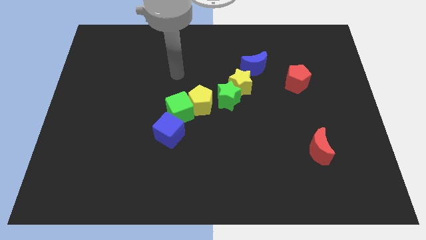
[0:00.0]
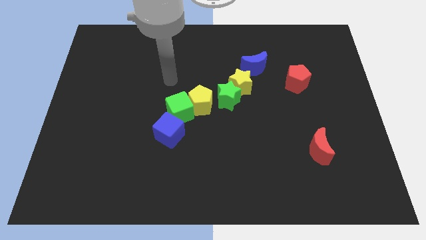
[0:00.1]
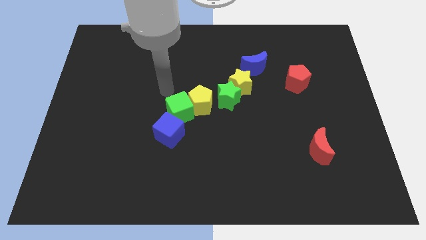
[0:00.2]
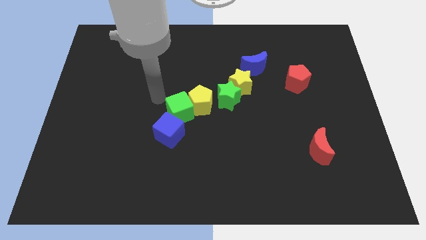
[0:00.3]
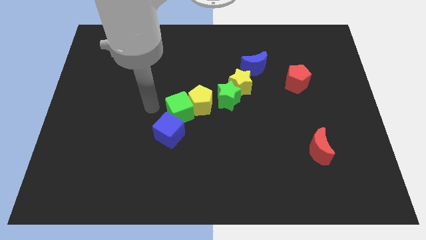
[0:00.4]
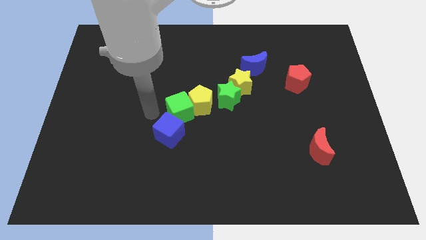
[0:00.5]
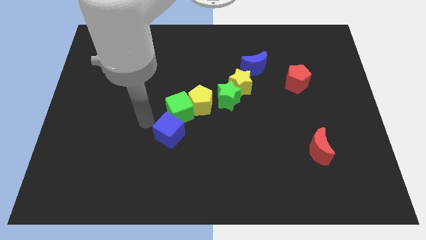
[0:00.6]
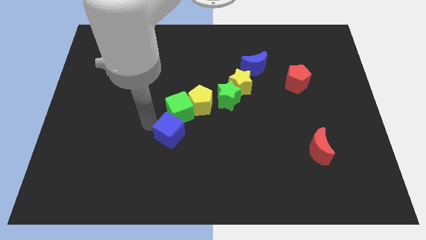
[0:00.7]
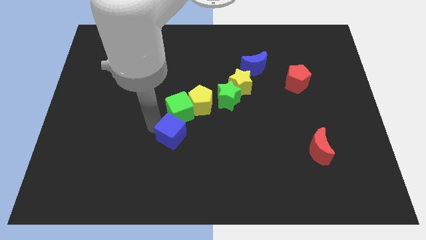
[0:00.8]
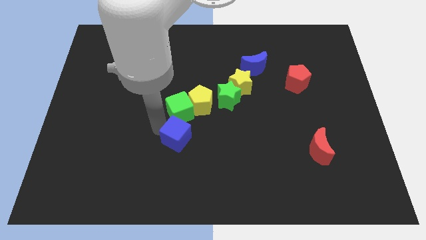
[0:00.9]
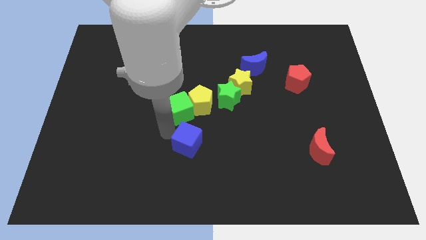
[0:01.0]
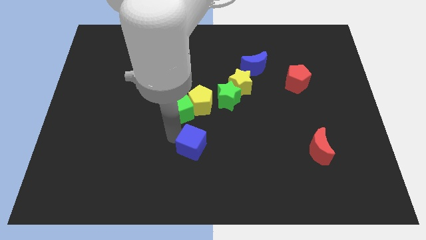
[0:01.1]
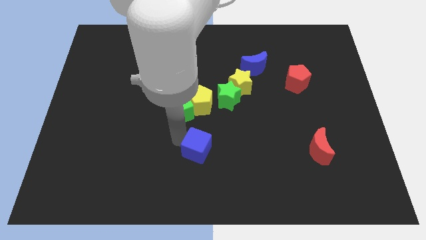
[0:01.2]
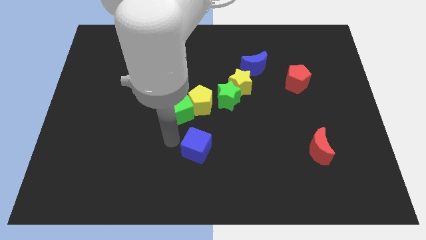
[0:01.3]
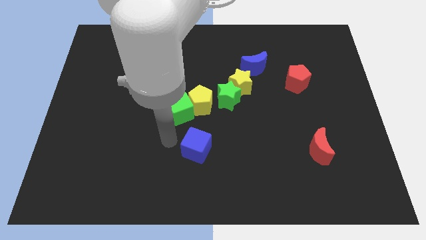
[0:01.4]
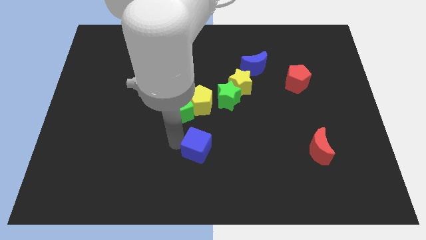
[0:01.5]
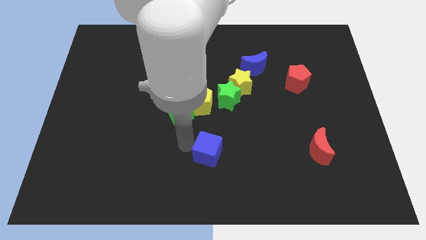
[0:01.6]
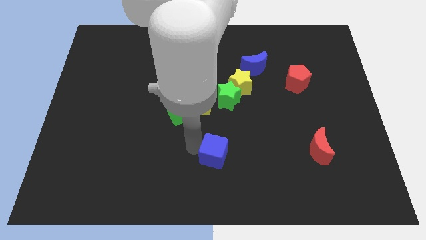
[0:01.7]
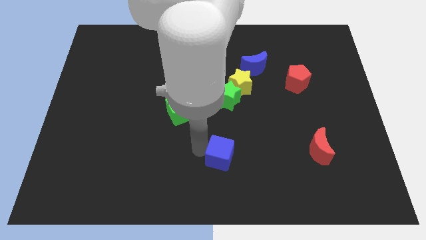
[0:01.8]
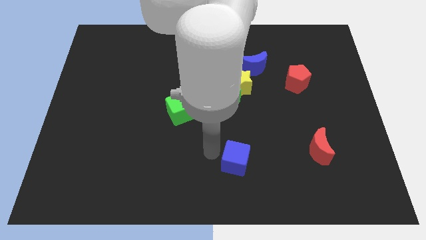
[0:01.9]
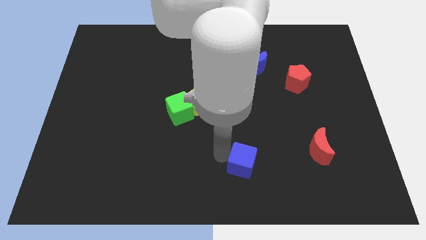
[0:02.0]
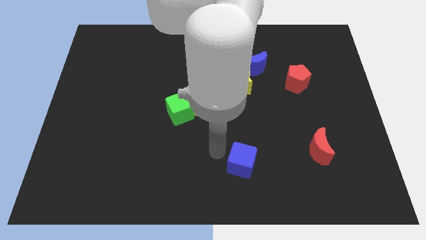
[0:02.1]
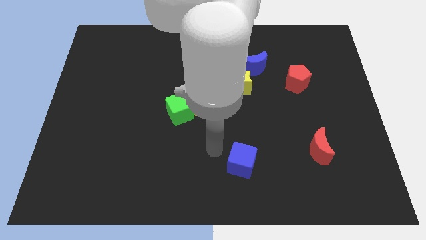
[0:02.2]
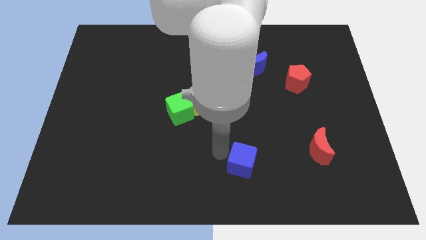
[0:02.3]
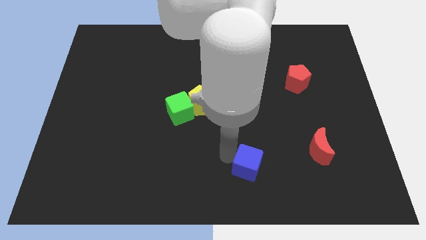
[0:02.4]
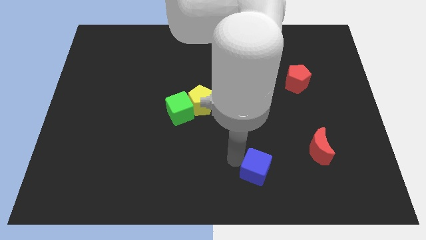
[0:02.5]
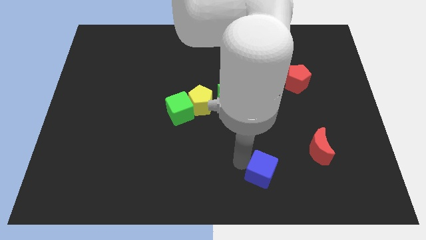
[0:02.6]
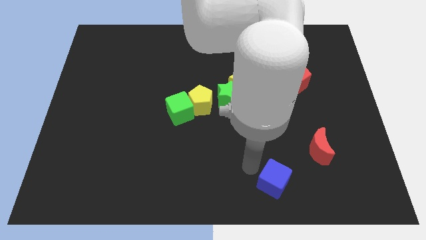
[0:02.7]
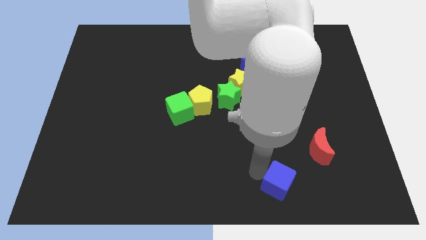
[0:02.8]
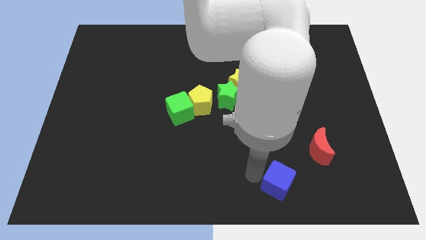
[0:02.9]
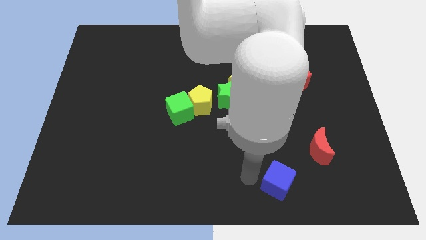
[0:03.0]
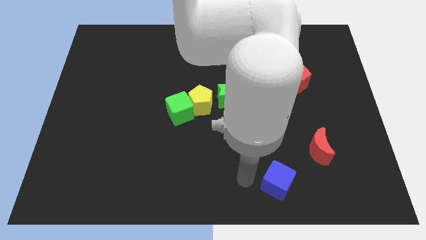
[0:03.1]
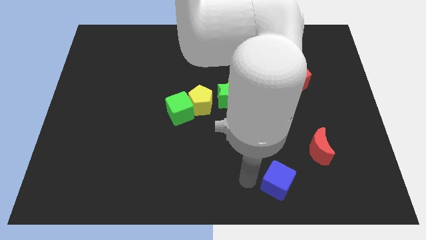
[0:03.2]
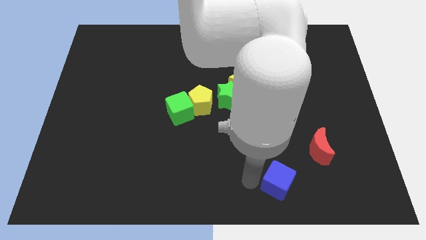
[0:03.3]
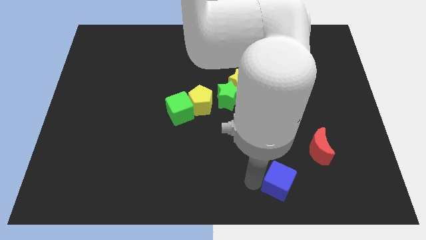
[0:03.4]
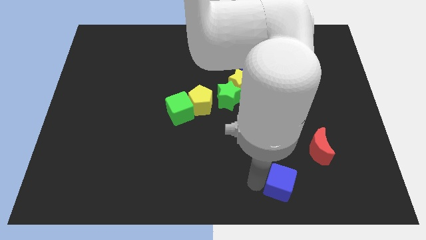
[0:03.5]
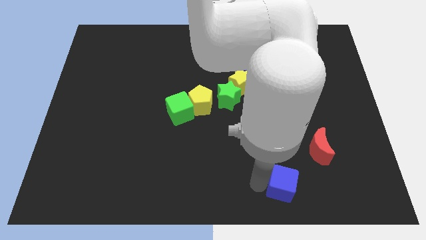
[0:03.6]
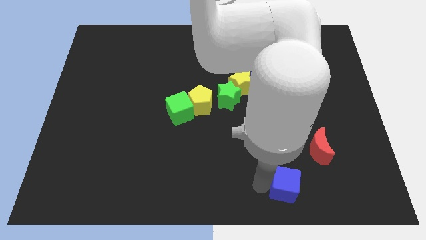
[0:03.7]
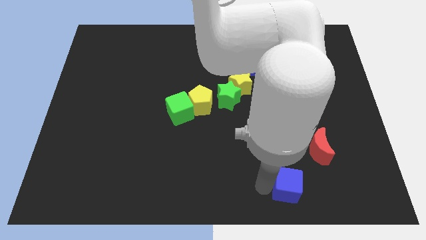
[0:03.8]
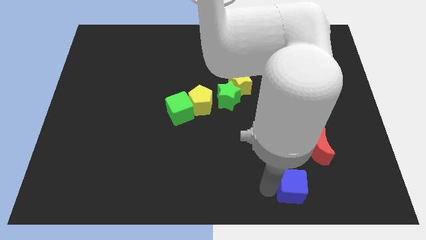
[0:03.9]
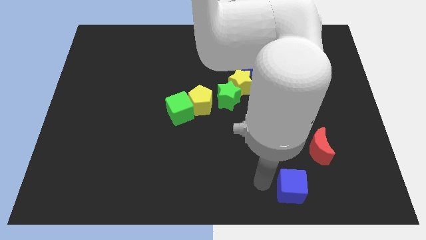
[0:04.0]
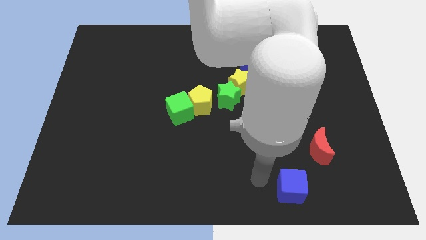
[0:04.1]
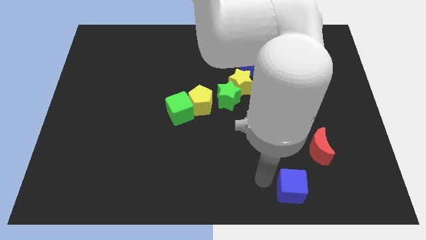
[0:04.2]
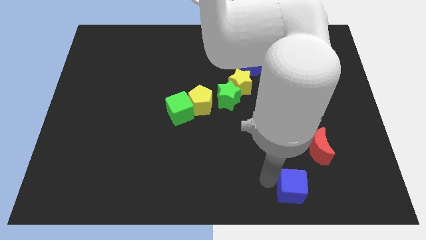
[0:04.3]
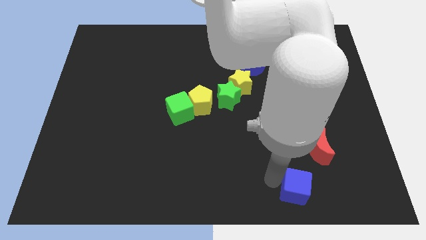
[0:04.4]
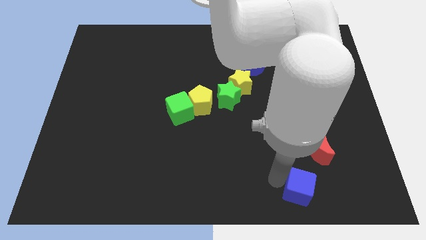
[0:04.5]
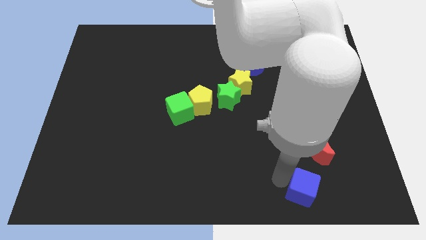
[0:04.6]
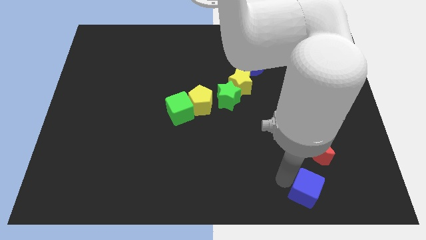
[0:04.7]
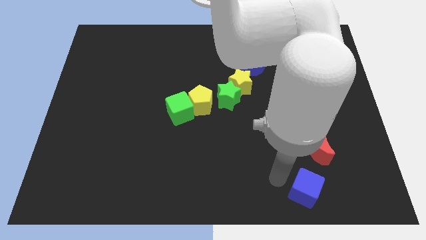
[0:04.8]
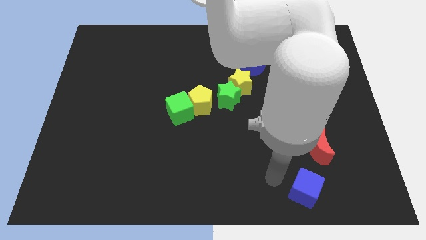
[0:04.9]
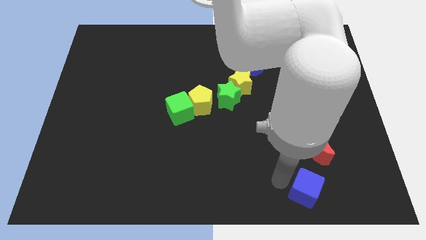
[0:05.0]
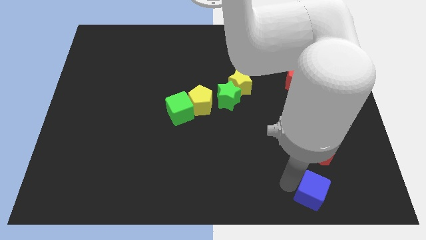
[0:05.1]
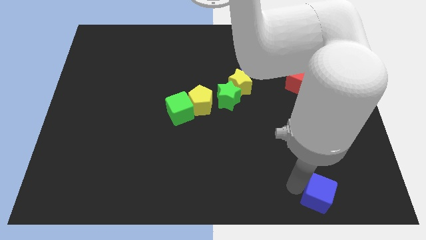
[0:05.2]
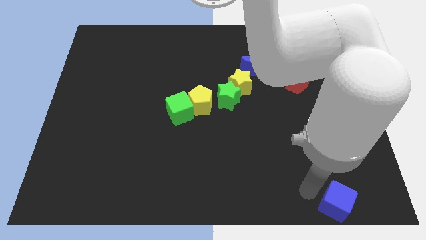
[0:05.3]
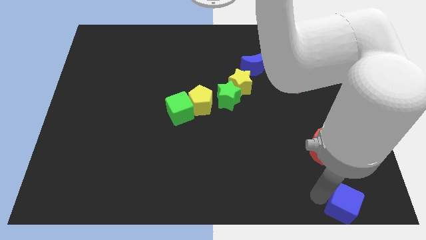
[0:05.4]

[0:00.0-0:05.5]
move the blue cube to the bottom right corner

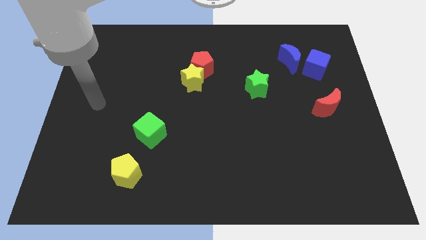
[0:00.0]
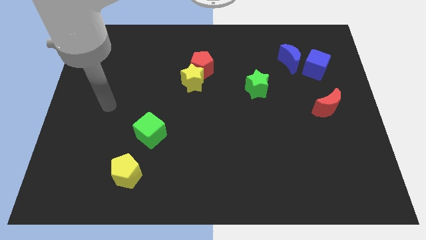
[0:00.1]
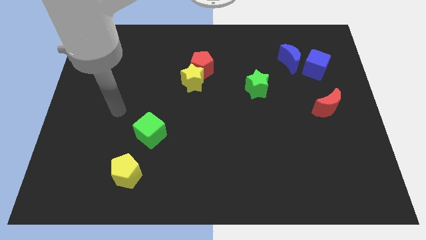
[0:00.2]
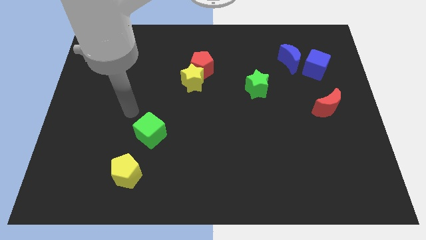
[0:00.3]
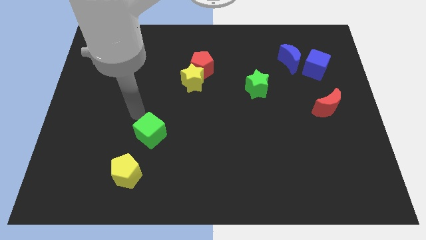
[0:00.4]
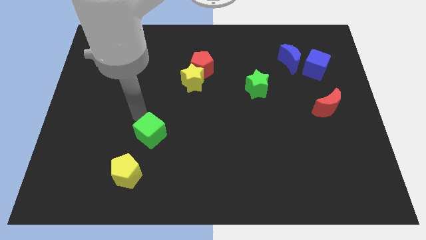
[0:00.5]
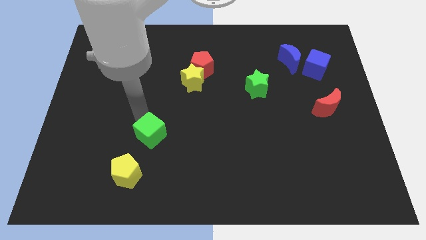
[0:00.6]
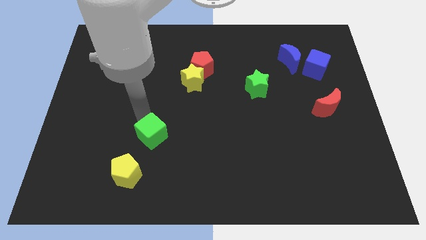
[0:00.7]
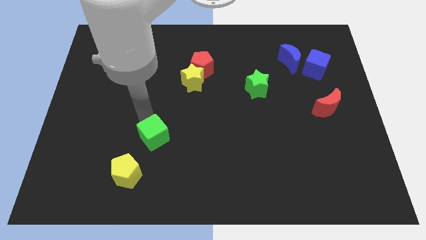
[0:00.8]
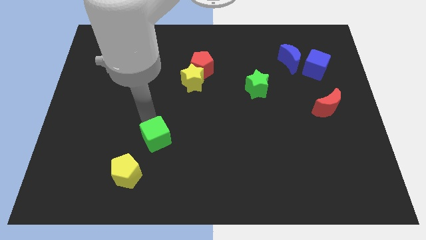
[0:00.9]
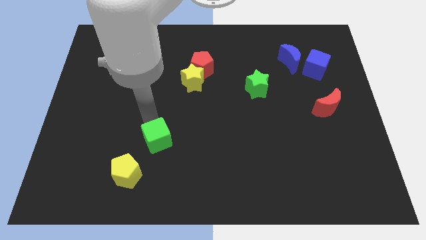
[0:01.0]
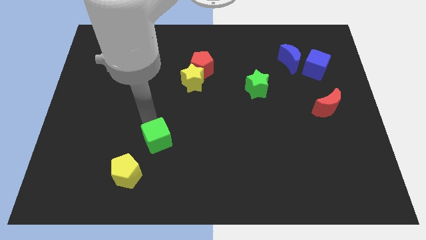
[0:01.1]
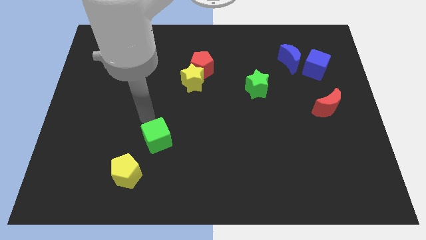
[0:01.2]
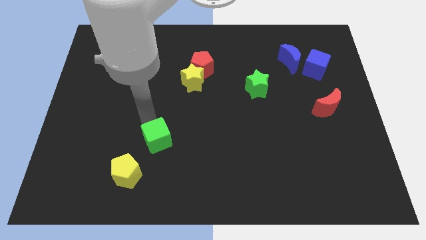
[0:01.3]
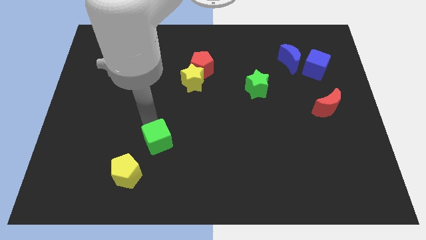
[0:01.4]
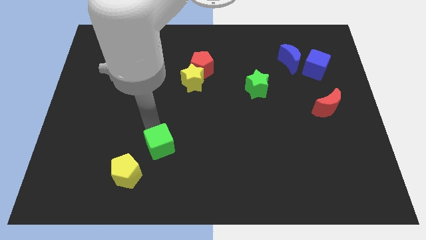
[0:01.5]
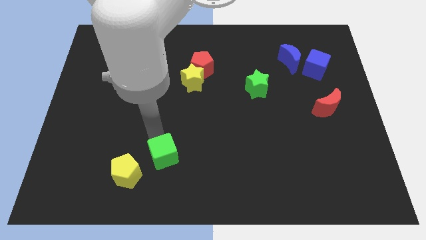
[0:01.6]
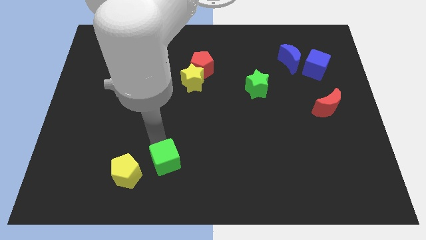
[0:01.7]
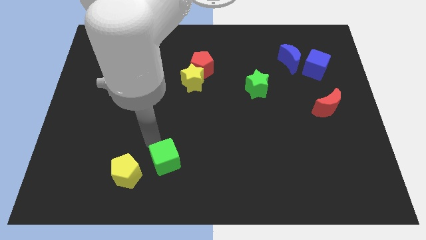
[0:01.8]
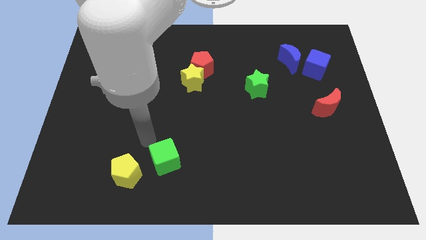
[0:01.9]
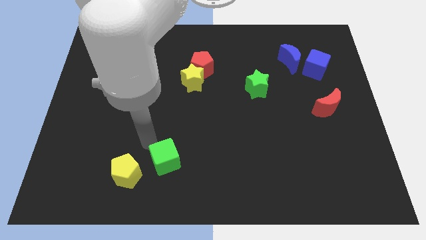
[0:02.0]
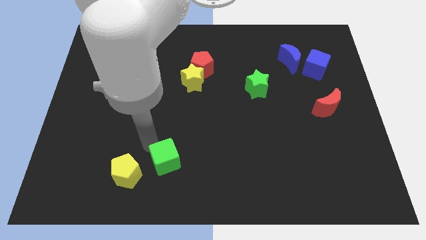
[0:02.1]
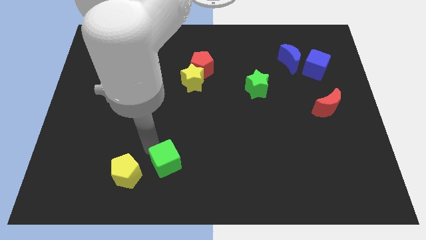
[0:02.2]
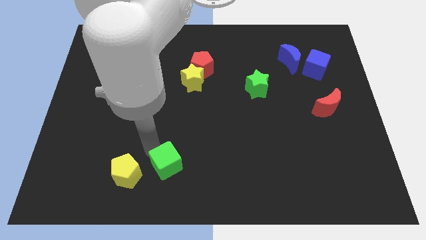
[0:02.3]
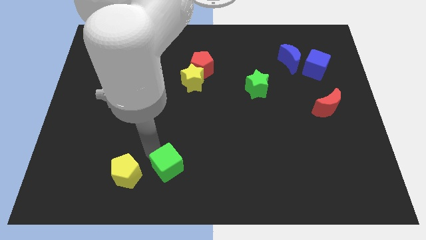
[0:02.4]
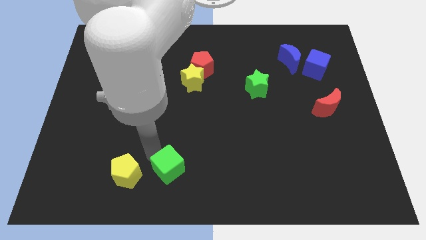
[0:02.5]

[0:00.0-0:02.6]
move the green cube to the bottom side
